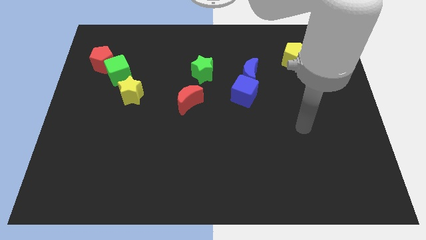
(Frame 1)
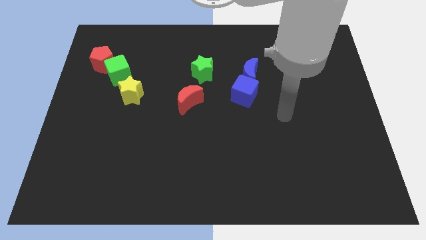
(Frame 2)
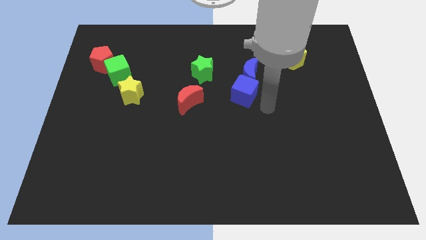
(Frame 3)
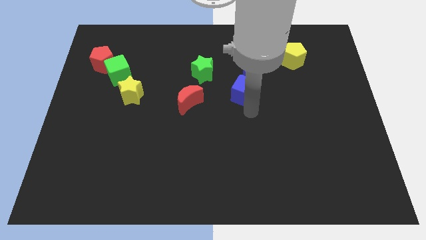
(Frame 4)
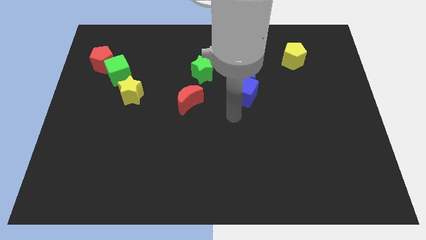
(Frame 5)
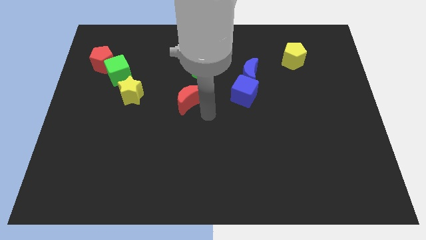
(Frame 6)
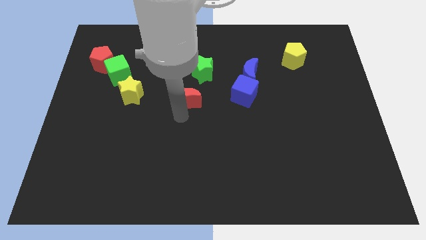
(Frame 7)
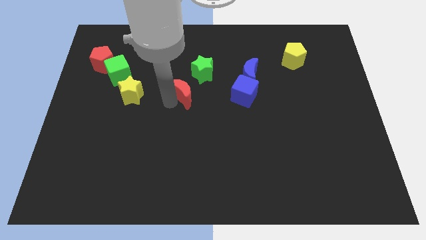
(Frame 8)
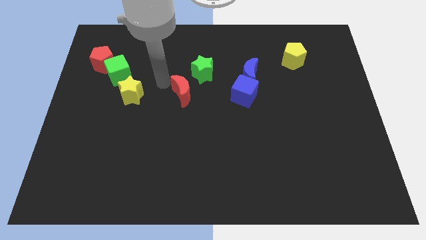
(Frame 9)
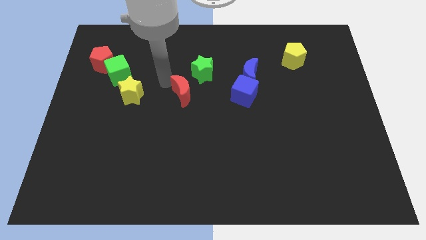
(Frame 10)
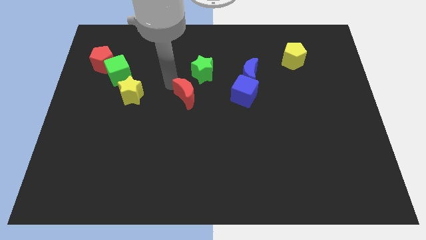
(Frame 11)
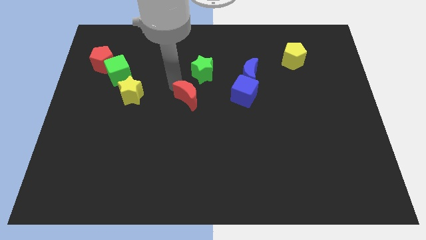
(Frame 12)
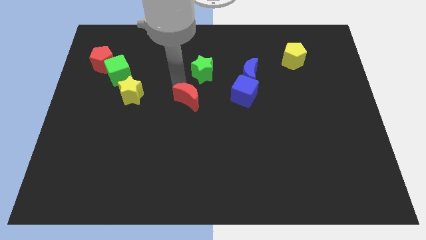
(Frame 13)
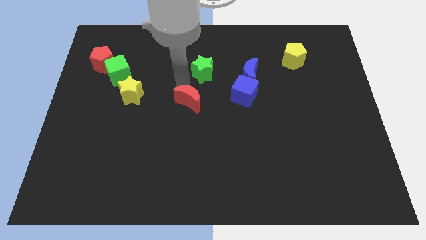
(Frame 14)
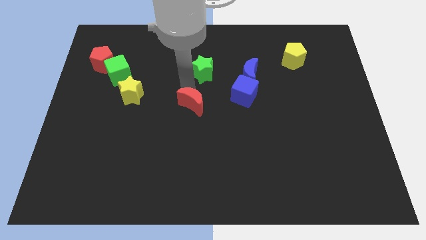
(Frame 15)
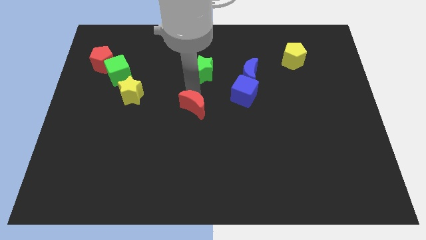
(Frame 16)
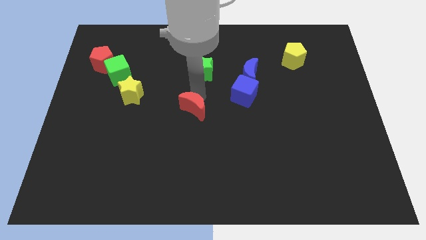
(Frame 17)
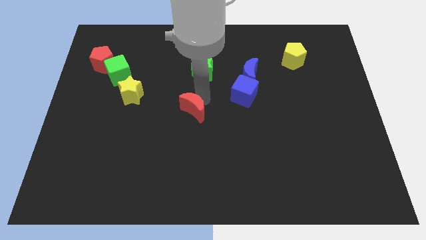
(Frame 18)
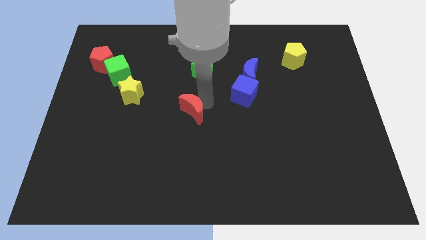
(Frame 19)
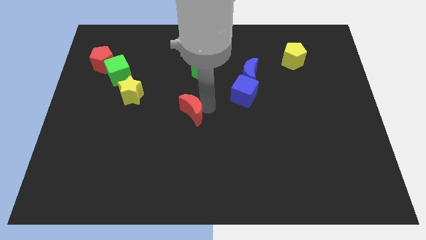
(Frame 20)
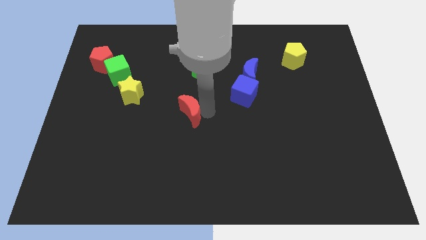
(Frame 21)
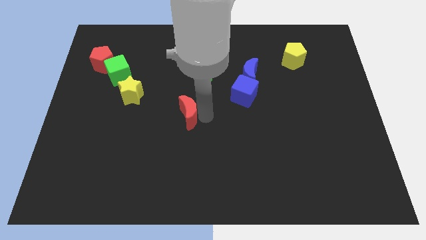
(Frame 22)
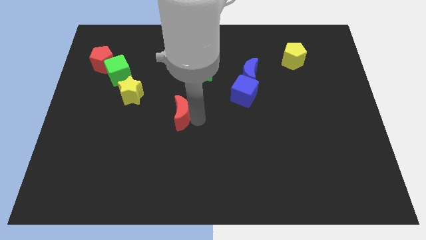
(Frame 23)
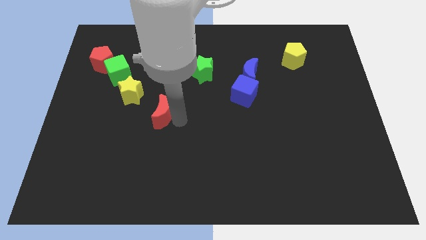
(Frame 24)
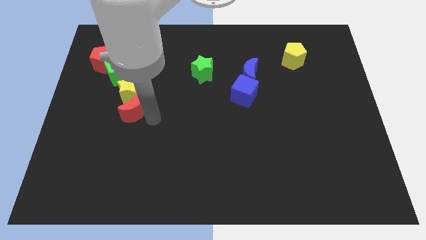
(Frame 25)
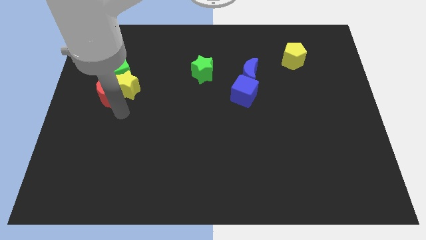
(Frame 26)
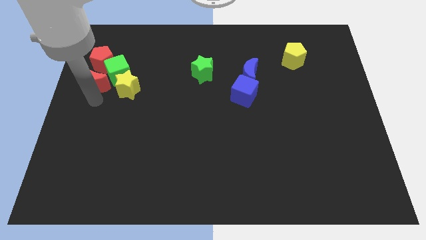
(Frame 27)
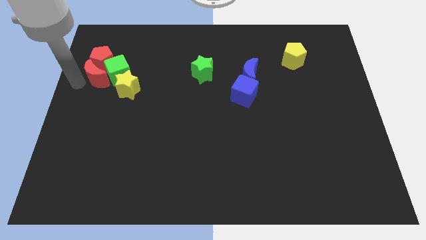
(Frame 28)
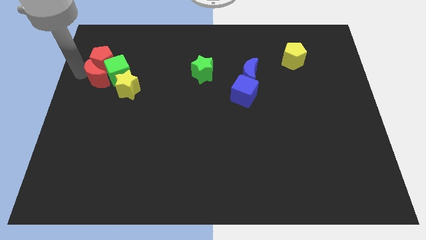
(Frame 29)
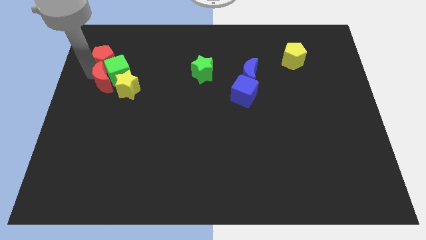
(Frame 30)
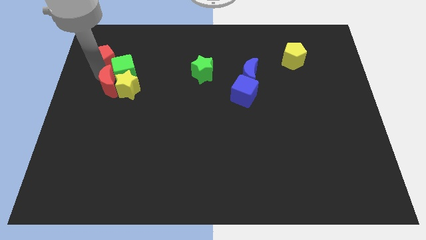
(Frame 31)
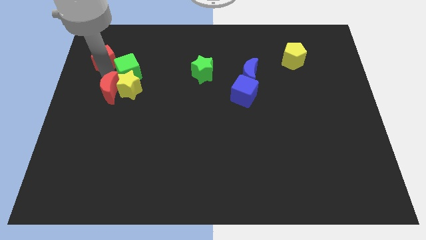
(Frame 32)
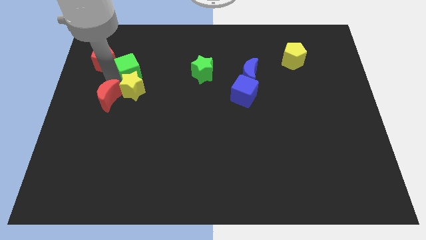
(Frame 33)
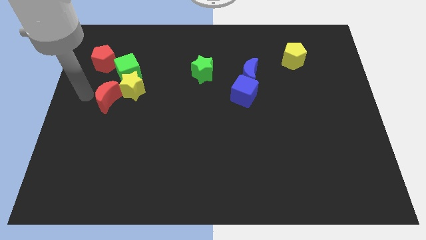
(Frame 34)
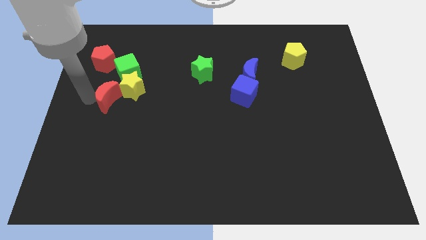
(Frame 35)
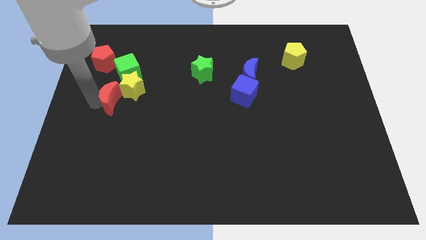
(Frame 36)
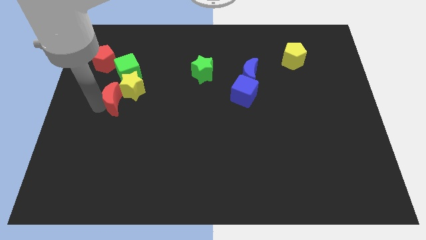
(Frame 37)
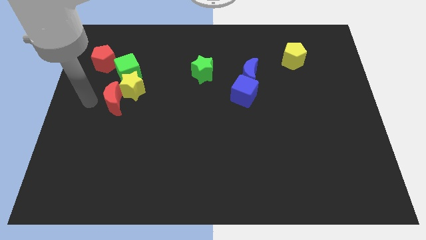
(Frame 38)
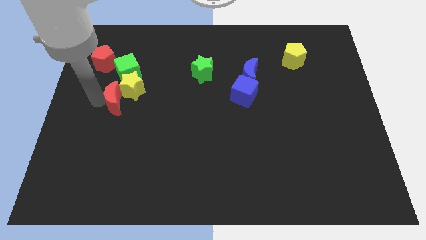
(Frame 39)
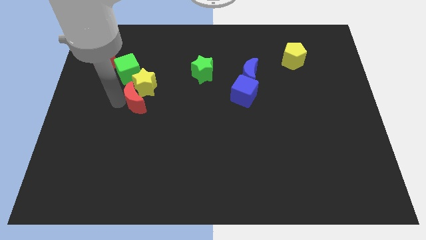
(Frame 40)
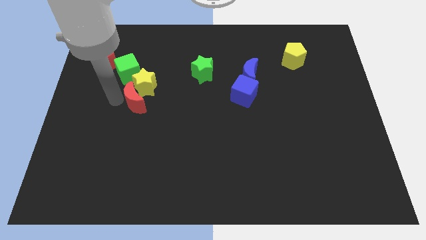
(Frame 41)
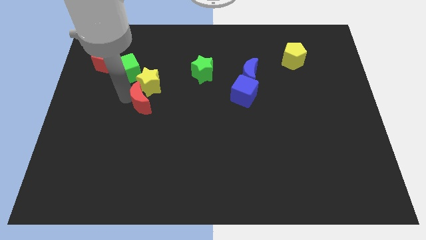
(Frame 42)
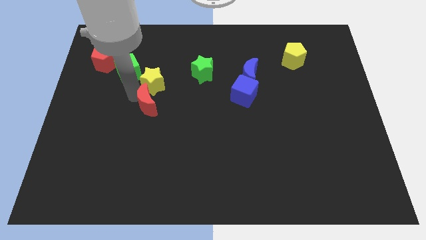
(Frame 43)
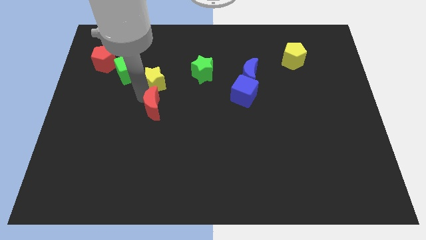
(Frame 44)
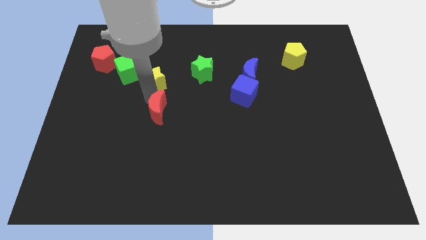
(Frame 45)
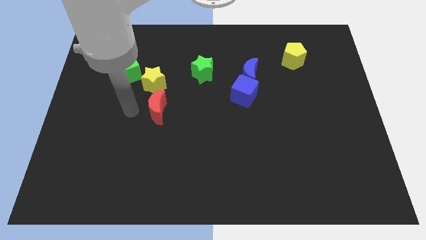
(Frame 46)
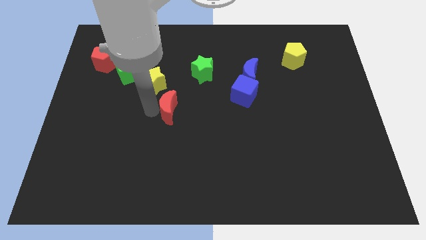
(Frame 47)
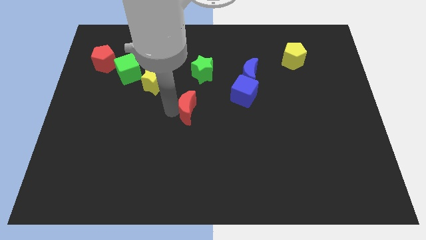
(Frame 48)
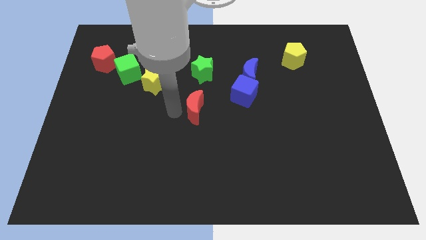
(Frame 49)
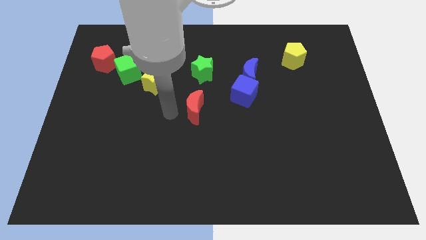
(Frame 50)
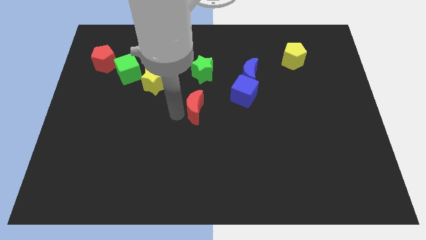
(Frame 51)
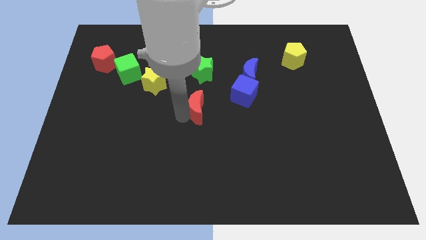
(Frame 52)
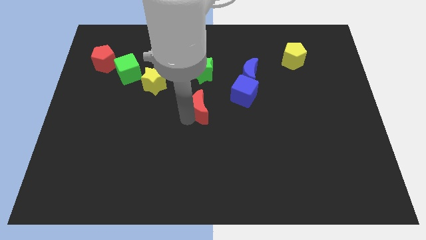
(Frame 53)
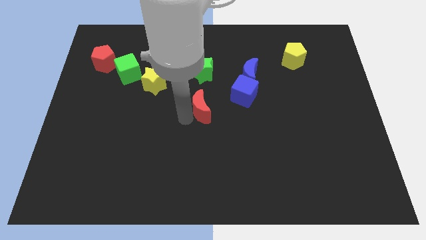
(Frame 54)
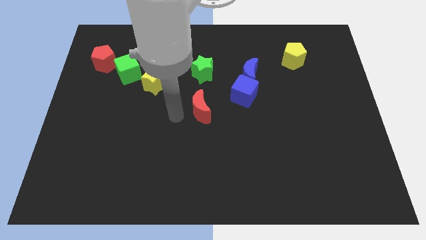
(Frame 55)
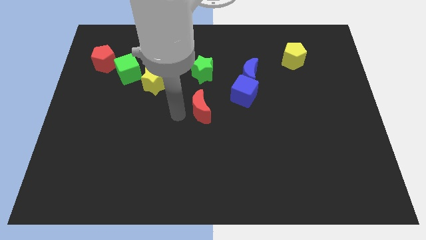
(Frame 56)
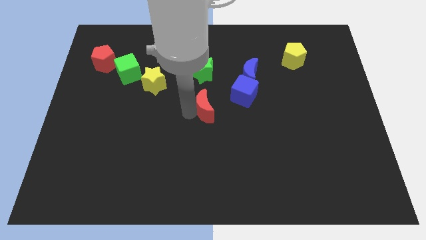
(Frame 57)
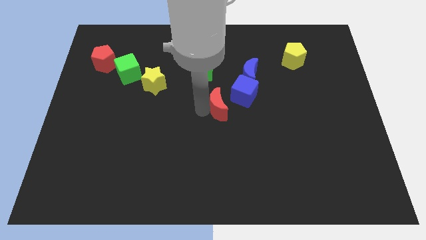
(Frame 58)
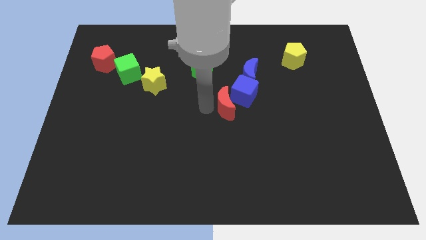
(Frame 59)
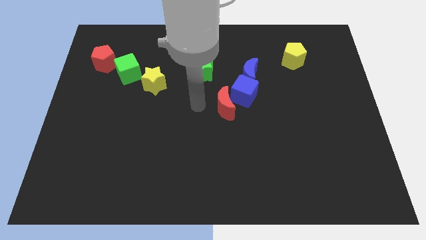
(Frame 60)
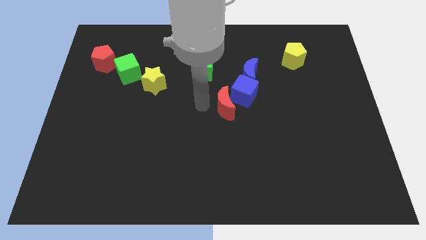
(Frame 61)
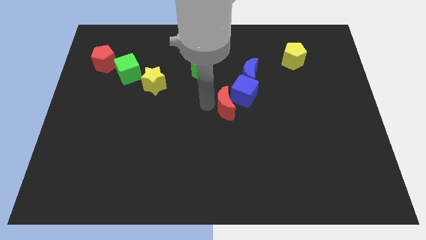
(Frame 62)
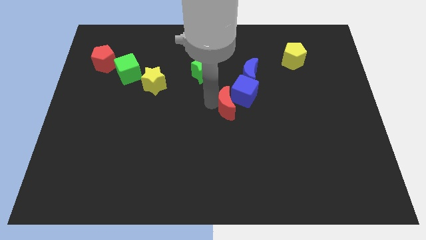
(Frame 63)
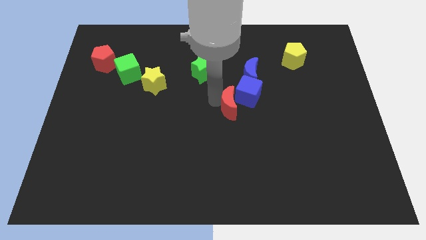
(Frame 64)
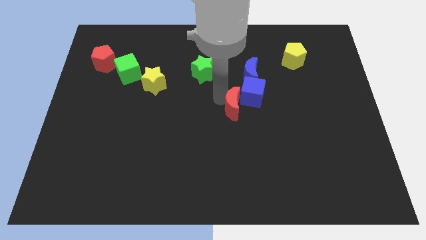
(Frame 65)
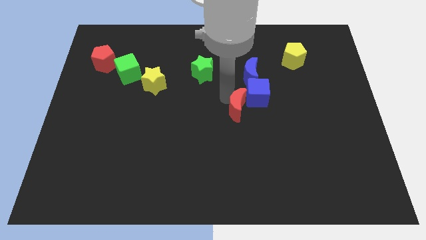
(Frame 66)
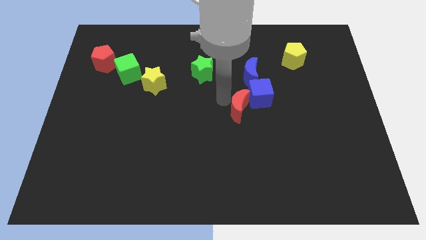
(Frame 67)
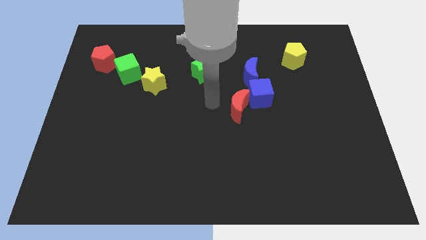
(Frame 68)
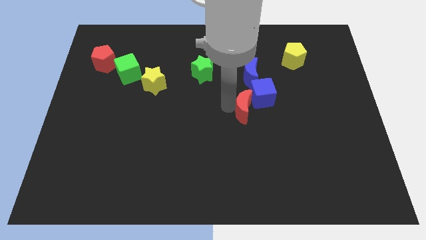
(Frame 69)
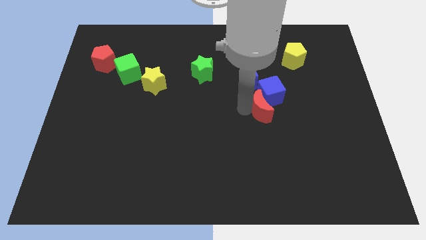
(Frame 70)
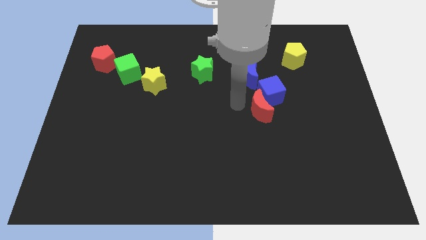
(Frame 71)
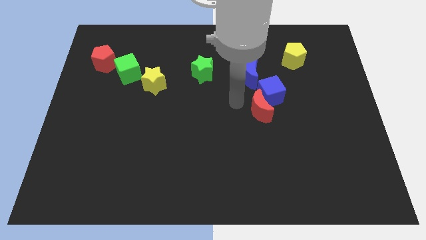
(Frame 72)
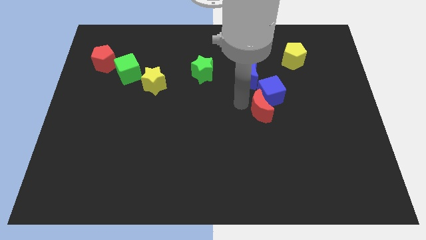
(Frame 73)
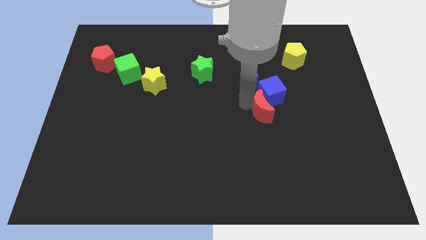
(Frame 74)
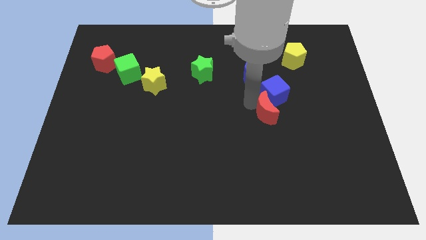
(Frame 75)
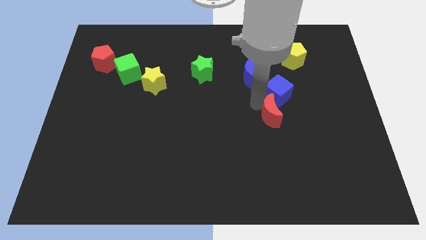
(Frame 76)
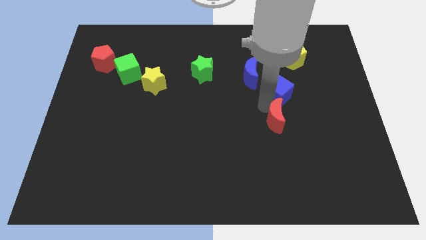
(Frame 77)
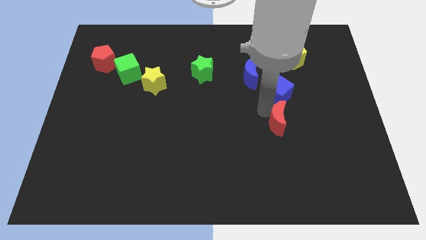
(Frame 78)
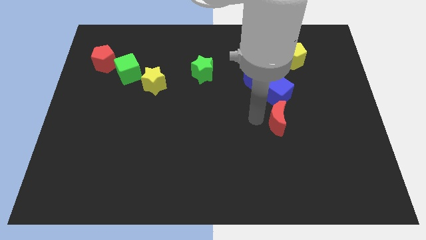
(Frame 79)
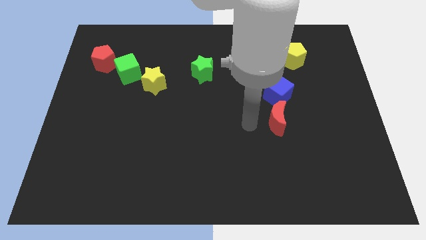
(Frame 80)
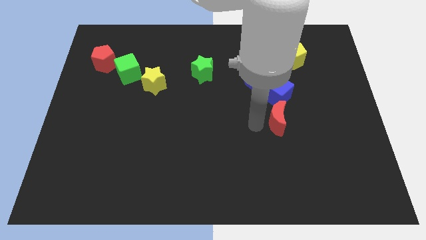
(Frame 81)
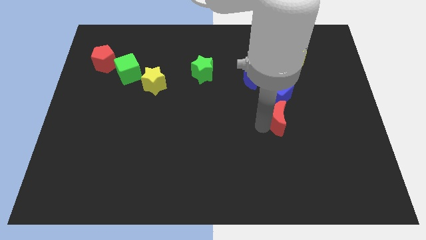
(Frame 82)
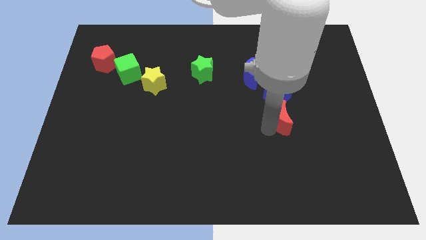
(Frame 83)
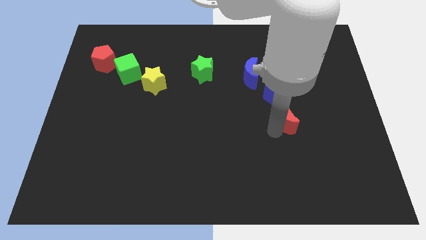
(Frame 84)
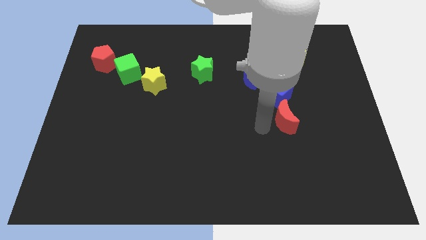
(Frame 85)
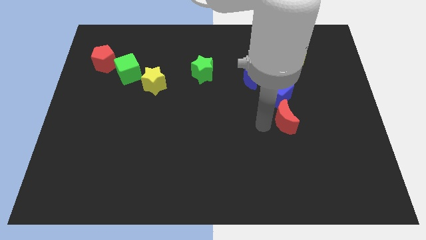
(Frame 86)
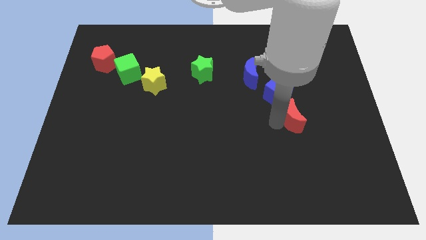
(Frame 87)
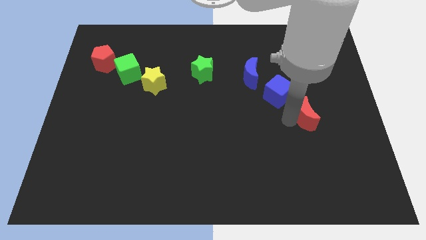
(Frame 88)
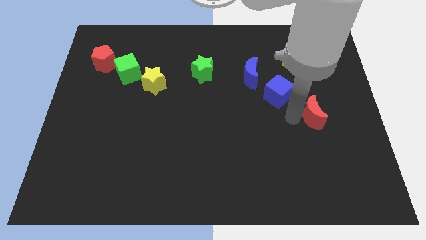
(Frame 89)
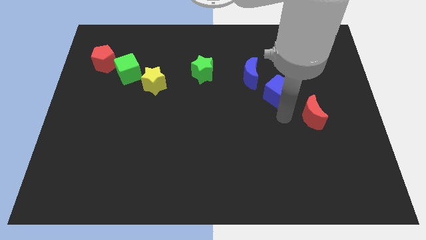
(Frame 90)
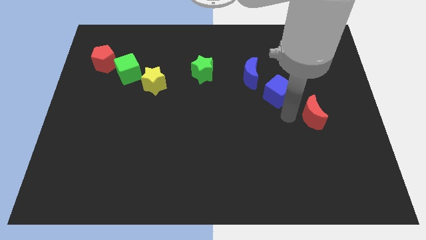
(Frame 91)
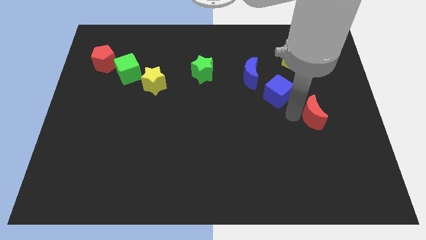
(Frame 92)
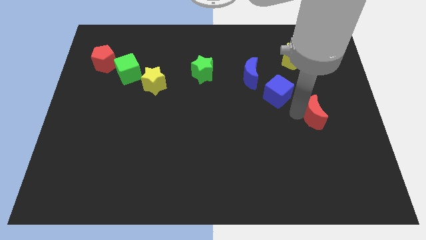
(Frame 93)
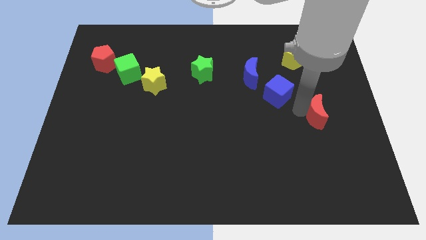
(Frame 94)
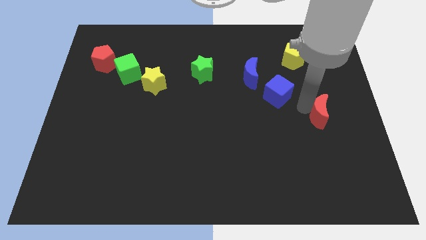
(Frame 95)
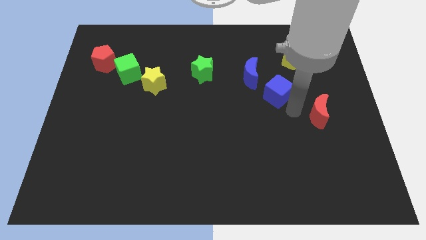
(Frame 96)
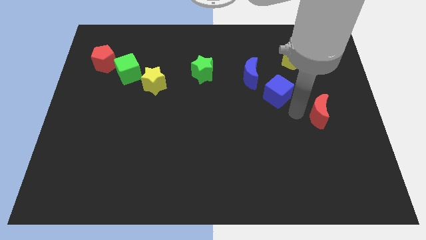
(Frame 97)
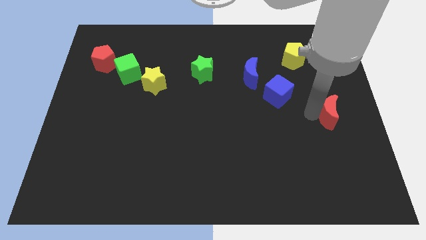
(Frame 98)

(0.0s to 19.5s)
move the red moon to the right side of the board
